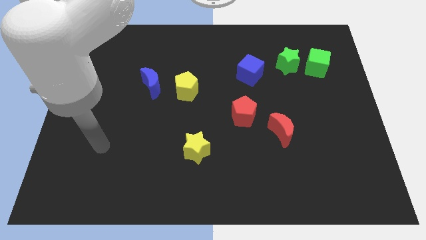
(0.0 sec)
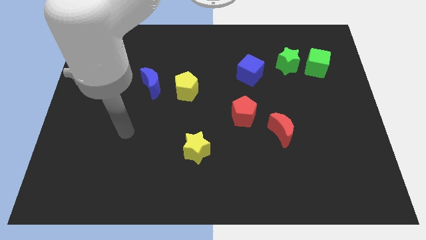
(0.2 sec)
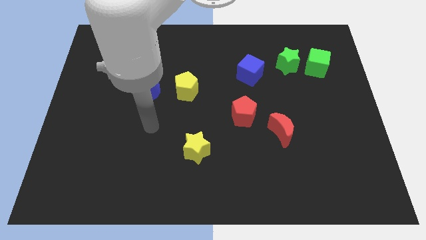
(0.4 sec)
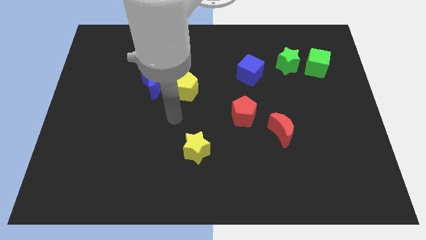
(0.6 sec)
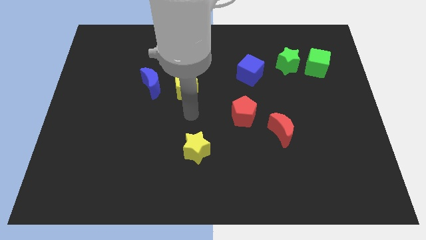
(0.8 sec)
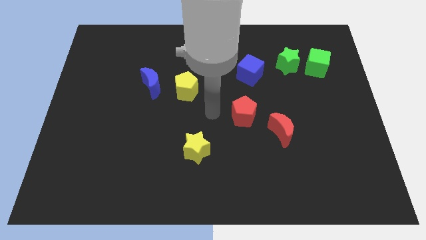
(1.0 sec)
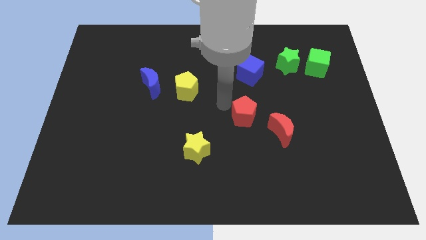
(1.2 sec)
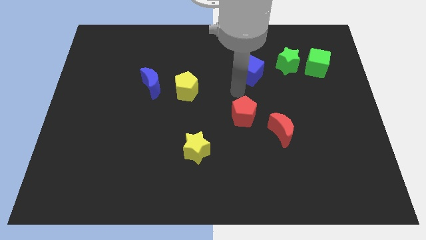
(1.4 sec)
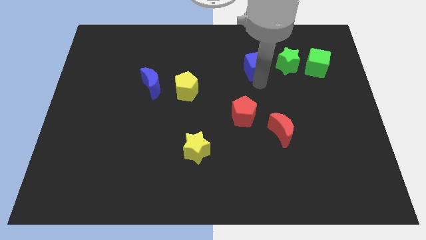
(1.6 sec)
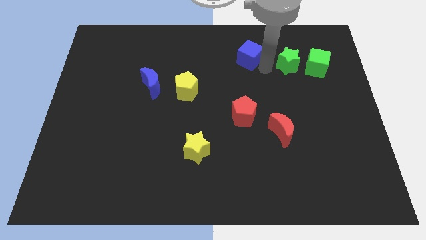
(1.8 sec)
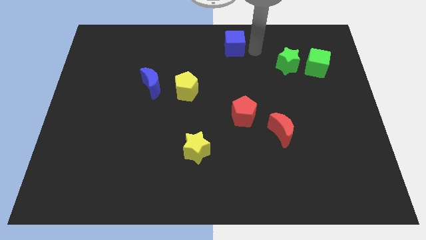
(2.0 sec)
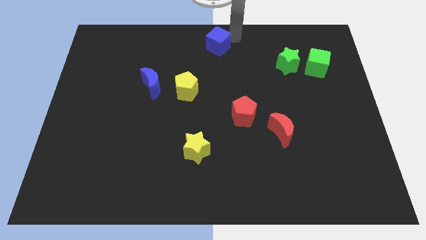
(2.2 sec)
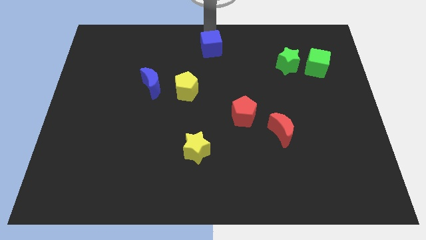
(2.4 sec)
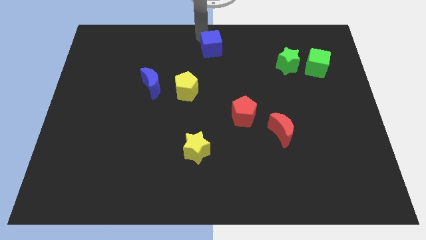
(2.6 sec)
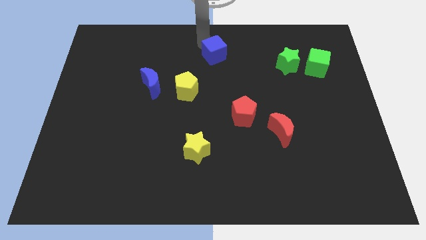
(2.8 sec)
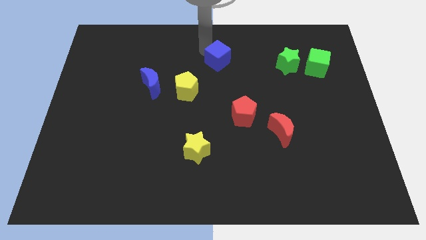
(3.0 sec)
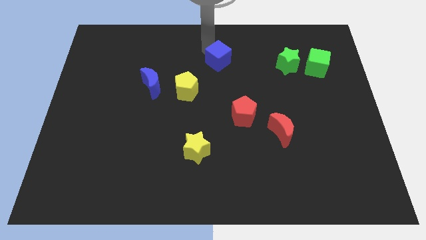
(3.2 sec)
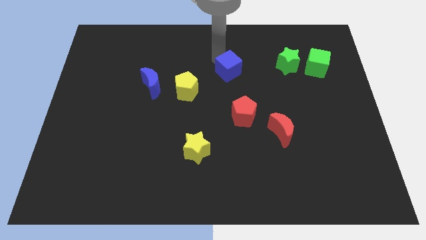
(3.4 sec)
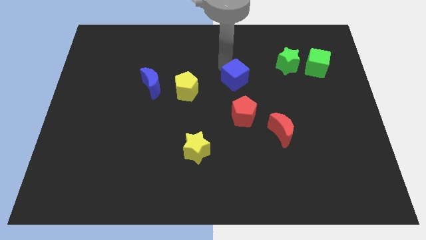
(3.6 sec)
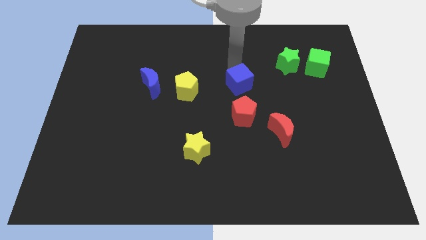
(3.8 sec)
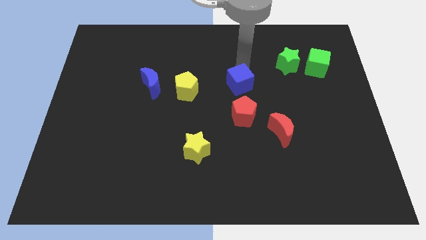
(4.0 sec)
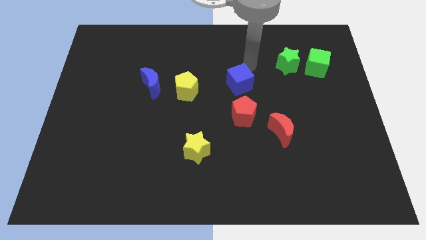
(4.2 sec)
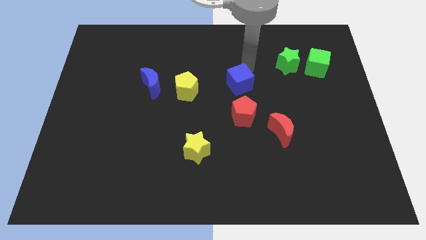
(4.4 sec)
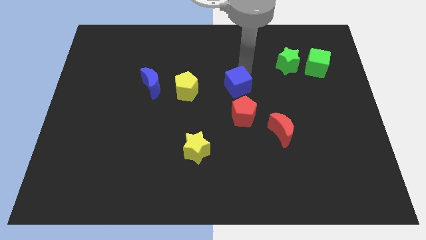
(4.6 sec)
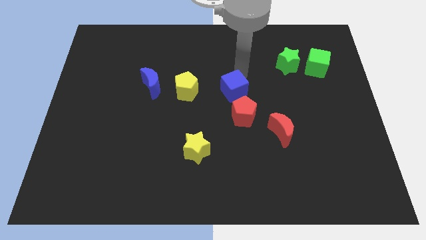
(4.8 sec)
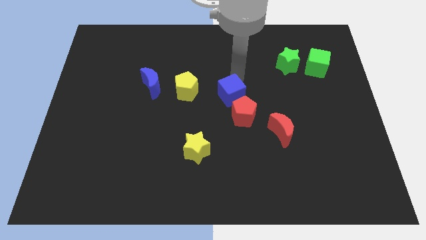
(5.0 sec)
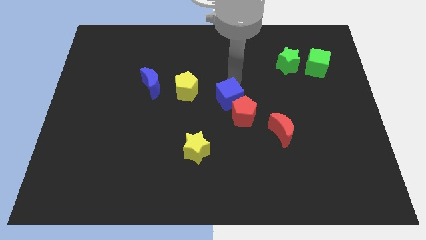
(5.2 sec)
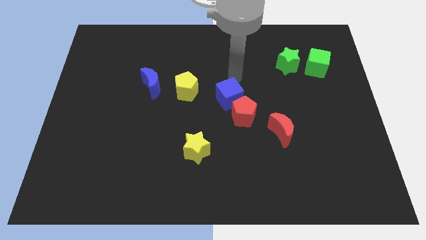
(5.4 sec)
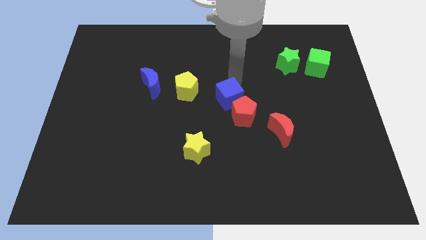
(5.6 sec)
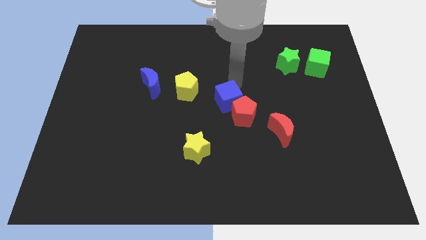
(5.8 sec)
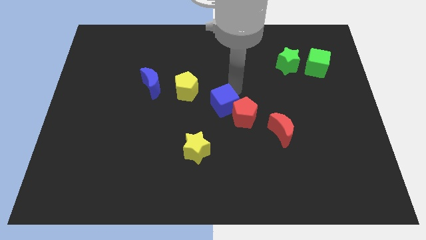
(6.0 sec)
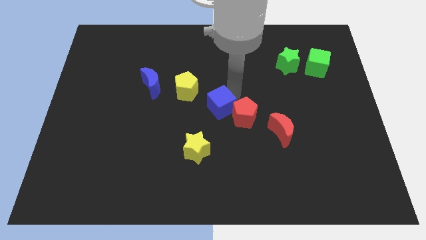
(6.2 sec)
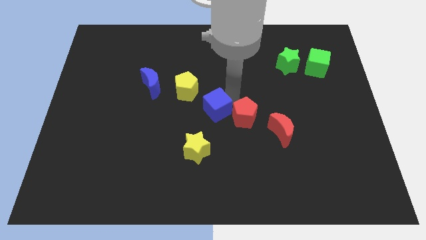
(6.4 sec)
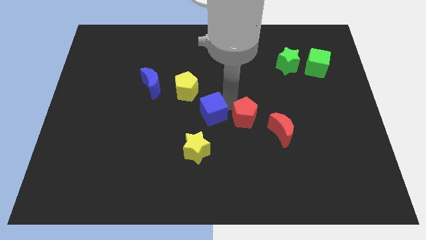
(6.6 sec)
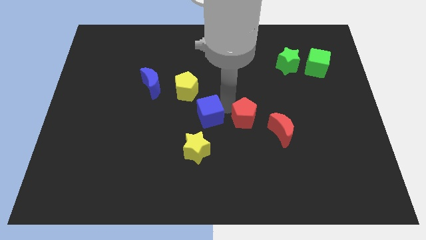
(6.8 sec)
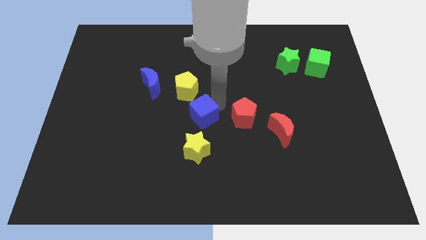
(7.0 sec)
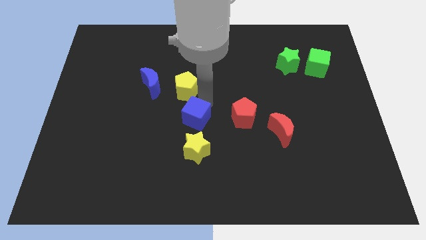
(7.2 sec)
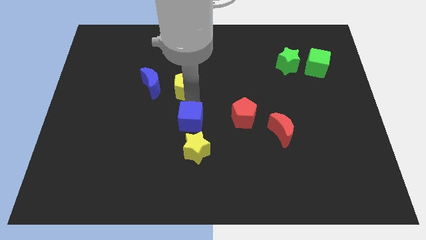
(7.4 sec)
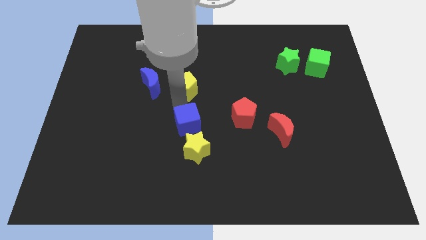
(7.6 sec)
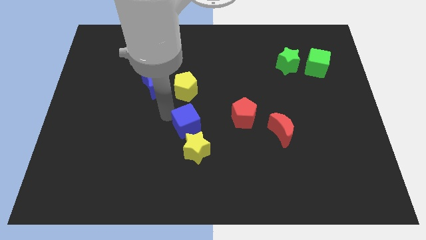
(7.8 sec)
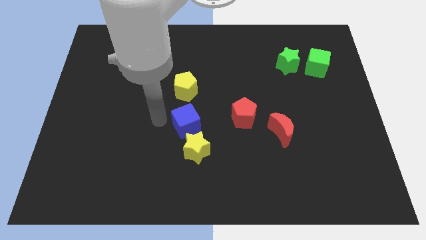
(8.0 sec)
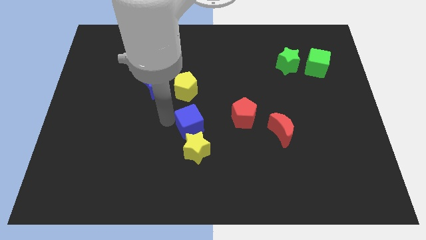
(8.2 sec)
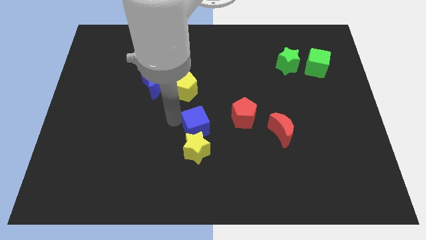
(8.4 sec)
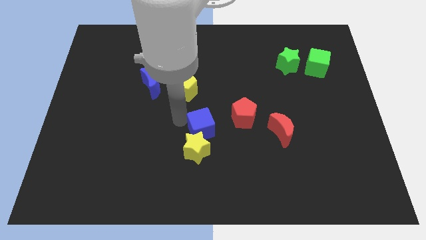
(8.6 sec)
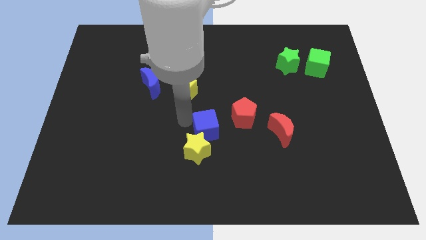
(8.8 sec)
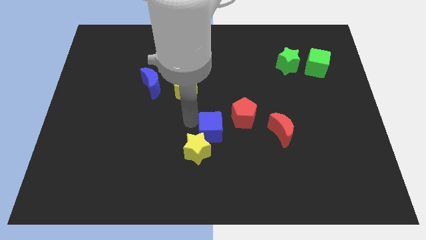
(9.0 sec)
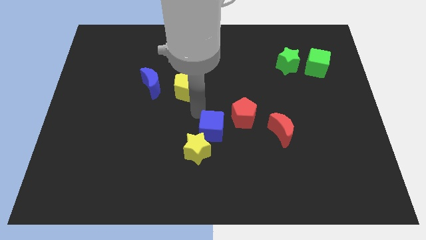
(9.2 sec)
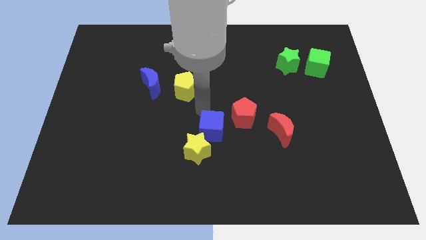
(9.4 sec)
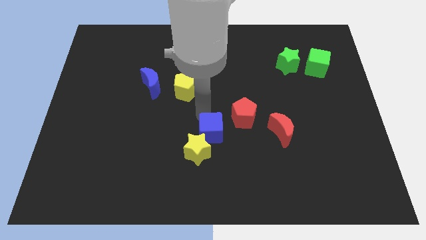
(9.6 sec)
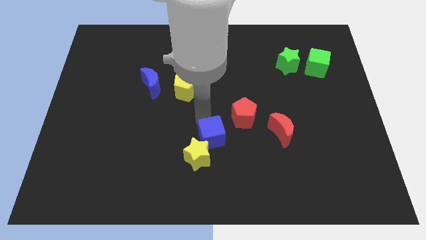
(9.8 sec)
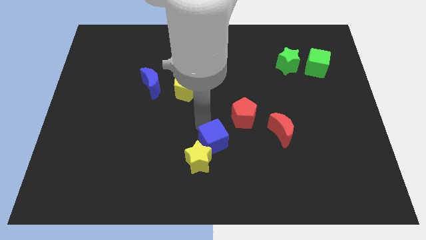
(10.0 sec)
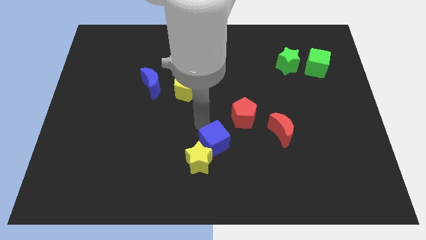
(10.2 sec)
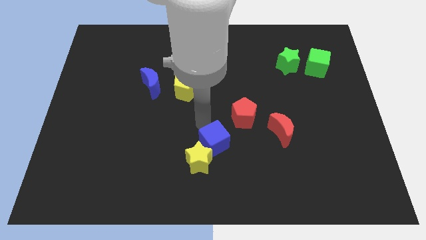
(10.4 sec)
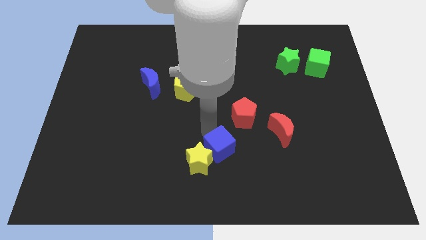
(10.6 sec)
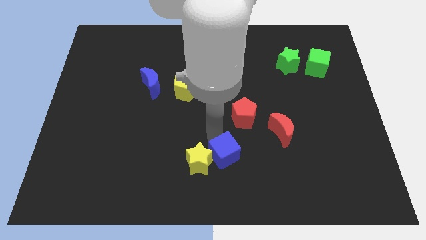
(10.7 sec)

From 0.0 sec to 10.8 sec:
move the blue cube to the bottom
